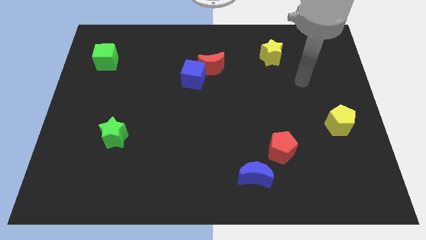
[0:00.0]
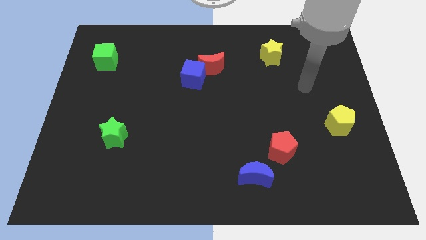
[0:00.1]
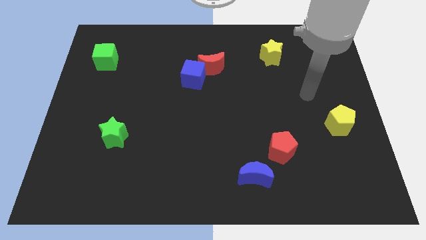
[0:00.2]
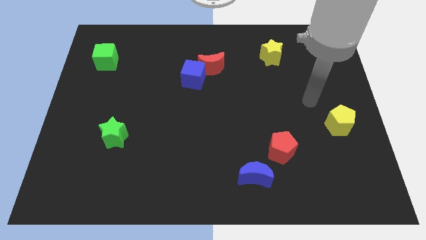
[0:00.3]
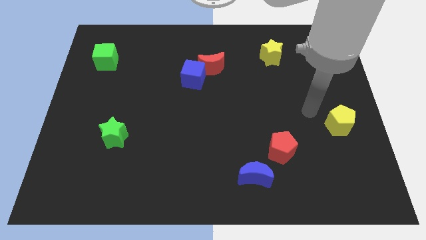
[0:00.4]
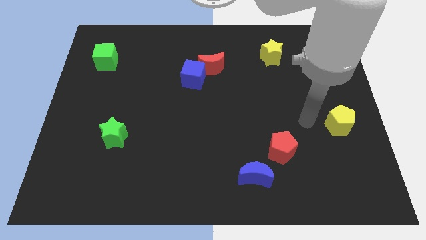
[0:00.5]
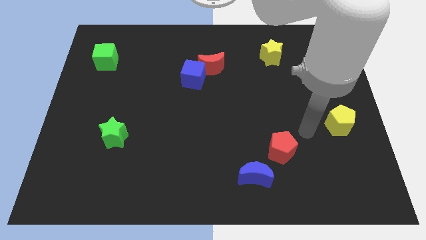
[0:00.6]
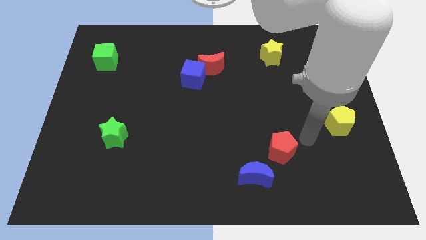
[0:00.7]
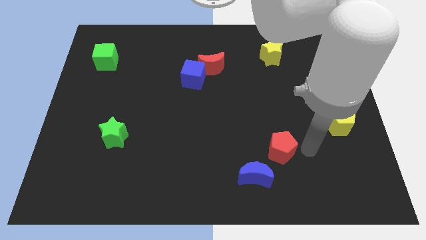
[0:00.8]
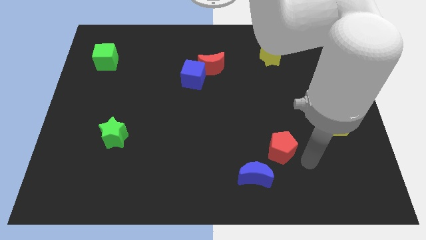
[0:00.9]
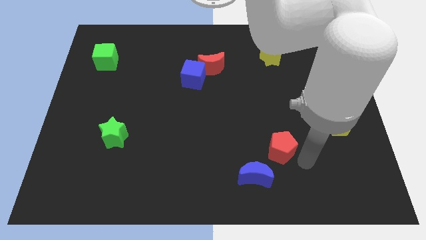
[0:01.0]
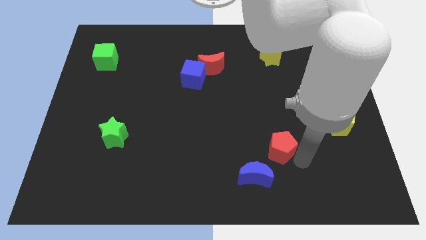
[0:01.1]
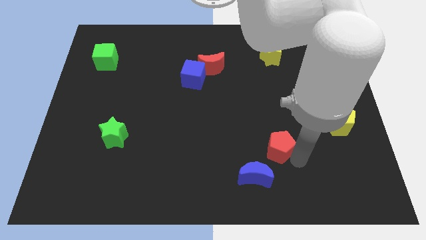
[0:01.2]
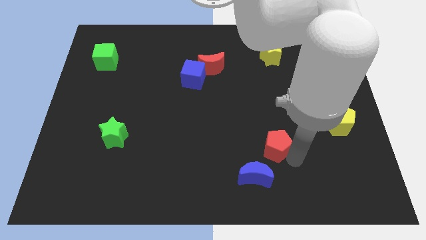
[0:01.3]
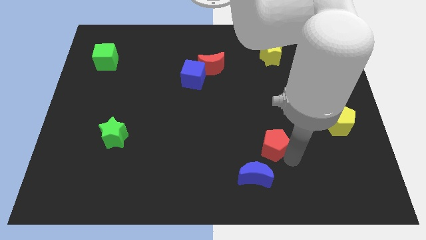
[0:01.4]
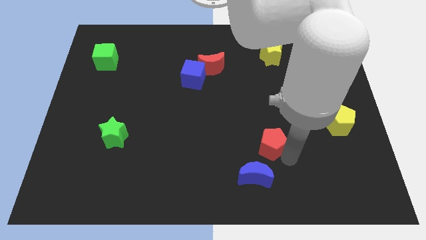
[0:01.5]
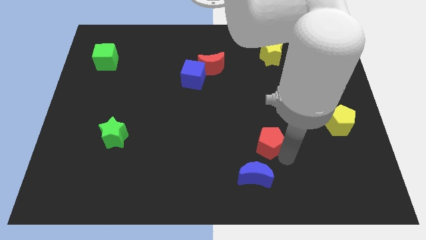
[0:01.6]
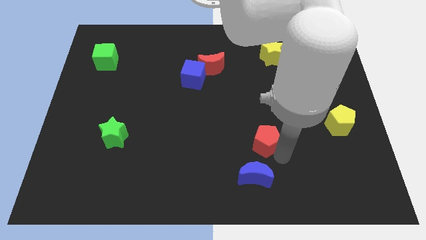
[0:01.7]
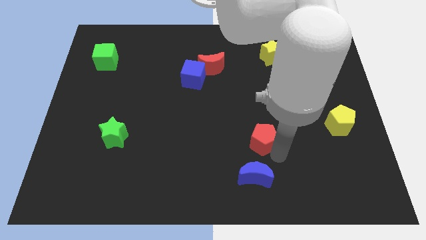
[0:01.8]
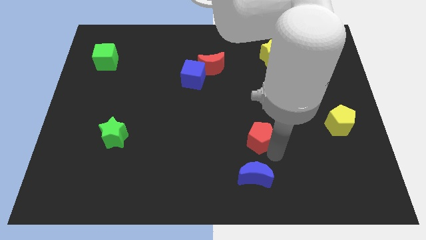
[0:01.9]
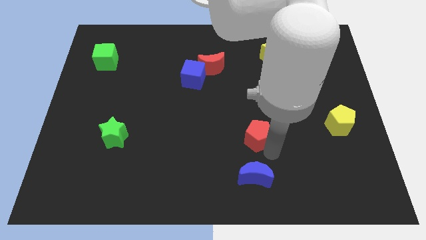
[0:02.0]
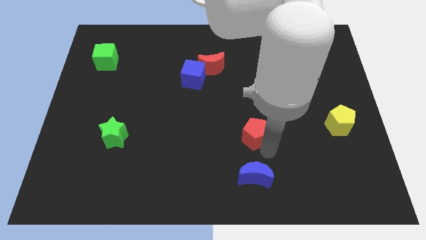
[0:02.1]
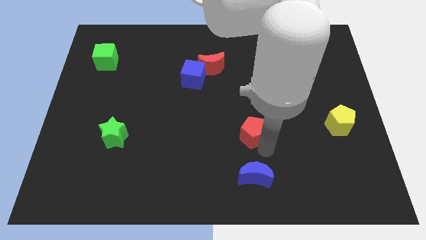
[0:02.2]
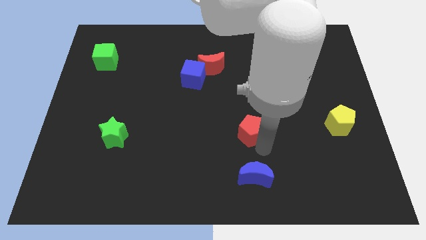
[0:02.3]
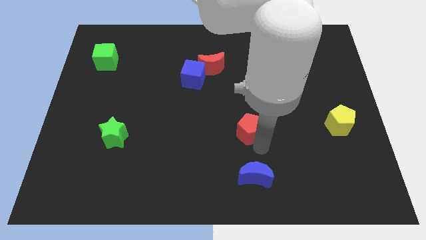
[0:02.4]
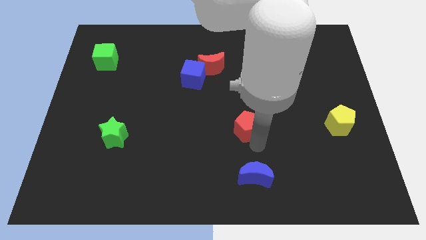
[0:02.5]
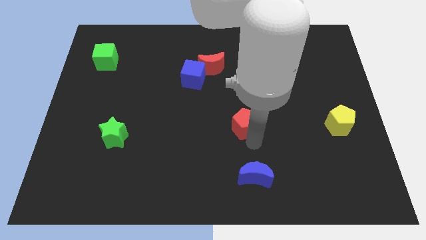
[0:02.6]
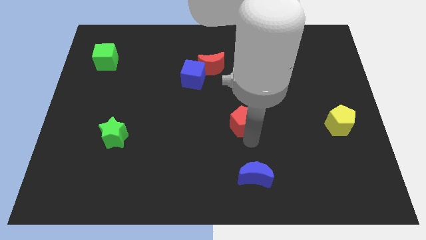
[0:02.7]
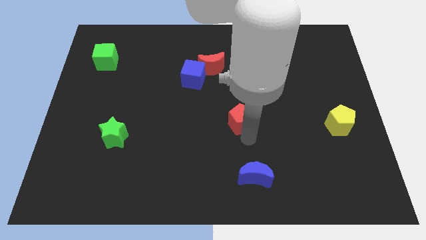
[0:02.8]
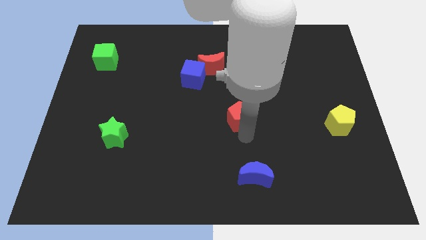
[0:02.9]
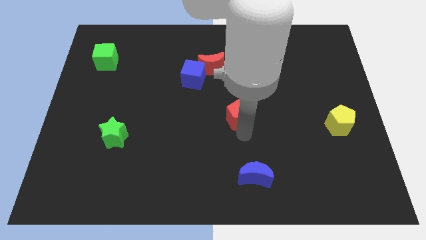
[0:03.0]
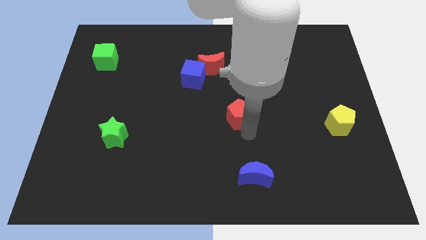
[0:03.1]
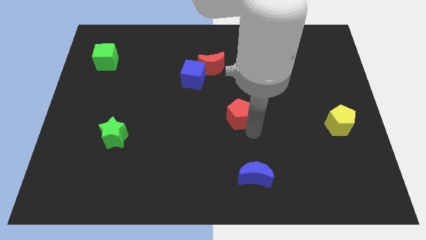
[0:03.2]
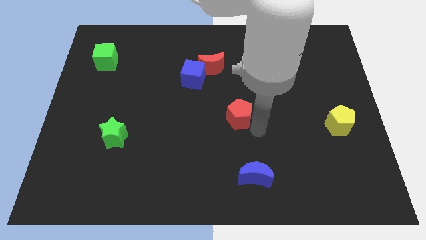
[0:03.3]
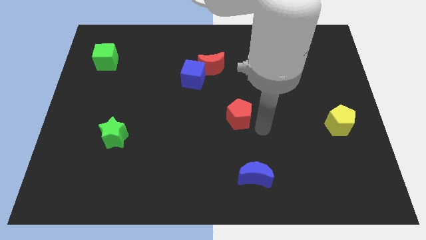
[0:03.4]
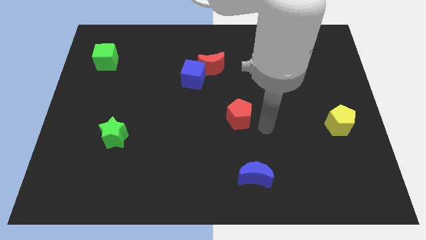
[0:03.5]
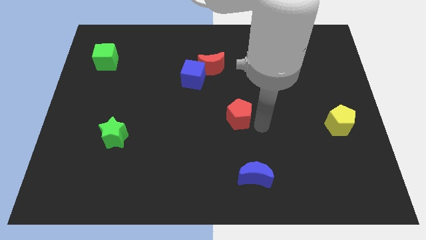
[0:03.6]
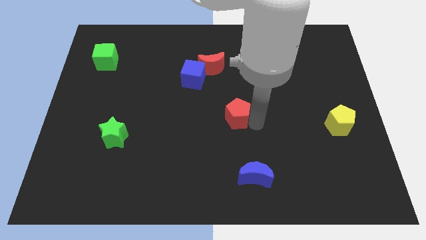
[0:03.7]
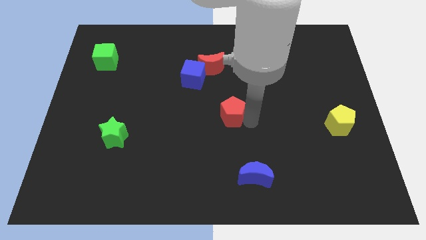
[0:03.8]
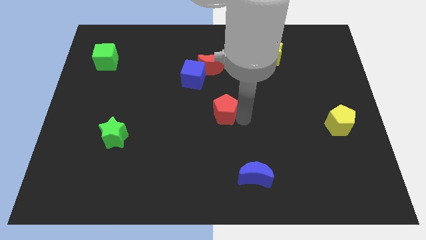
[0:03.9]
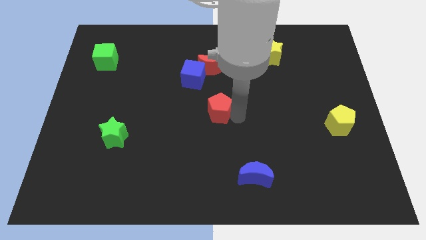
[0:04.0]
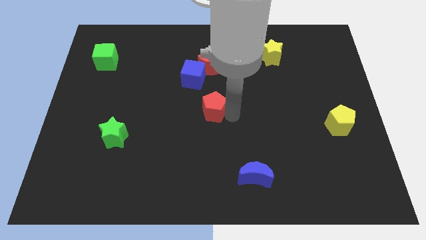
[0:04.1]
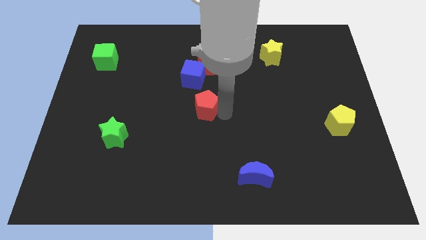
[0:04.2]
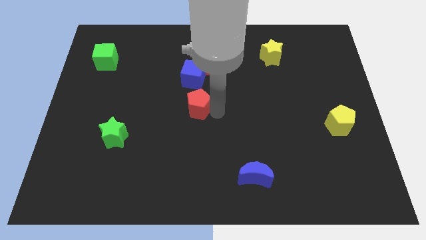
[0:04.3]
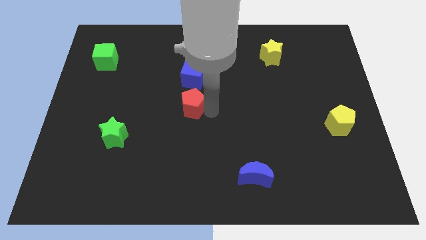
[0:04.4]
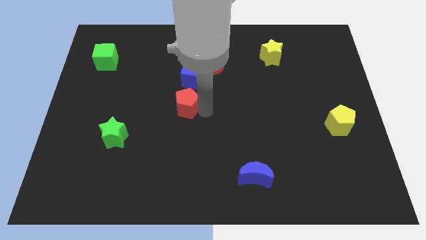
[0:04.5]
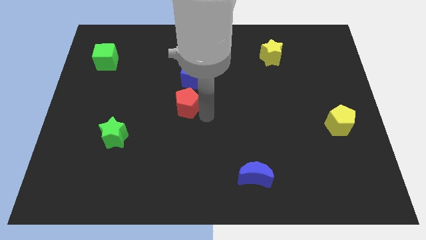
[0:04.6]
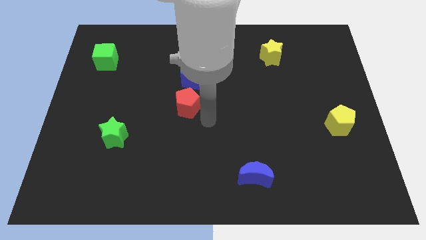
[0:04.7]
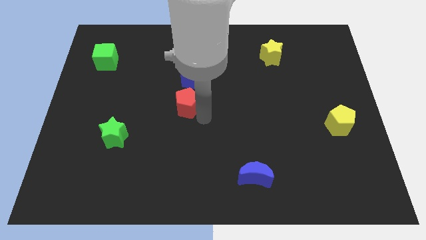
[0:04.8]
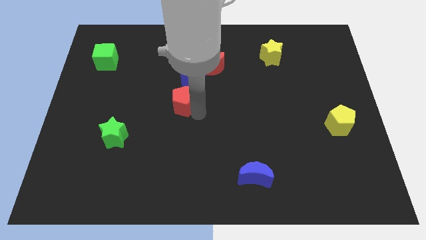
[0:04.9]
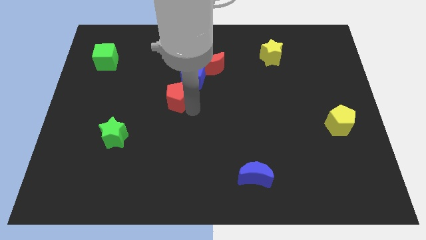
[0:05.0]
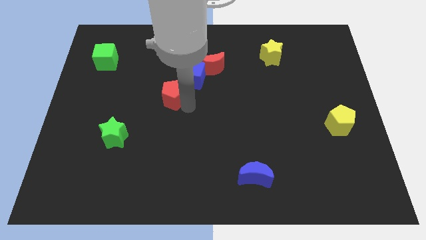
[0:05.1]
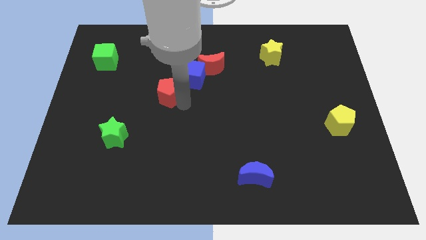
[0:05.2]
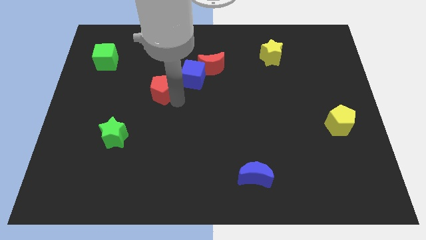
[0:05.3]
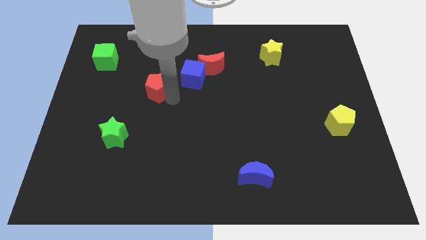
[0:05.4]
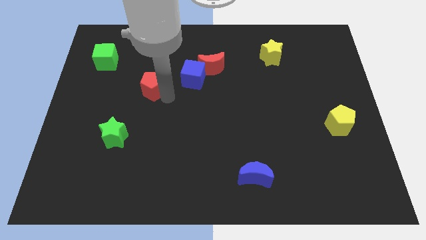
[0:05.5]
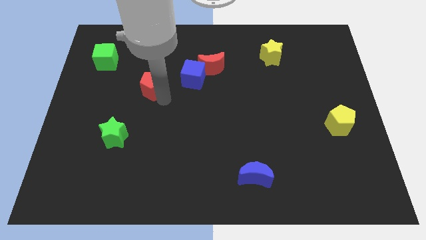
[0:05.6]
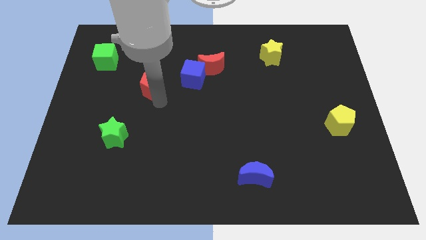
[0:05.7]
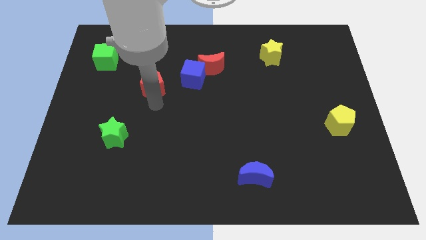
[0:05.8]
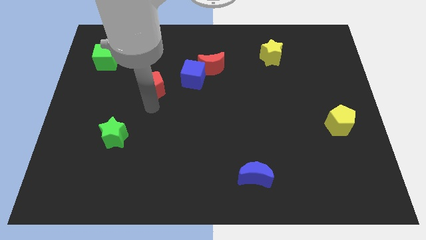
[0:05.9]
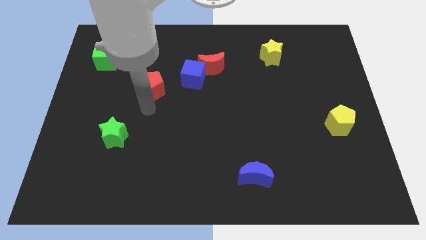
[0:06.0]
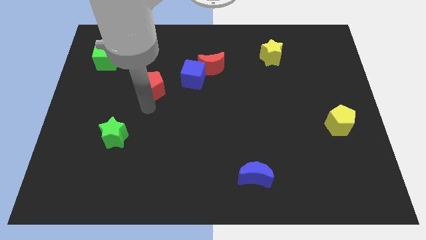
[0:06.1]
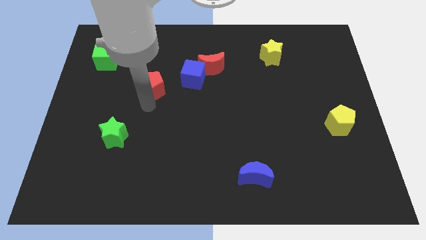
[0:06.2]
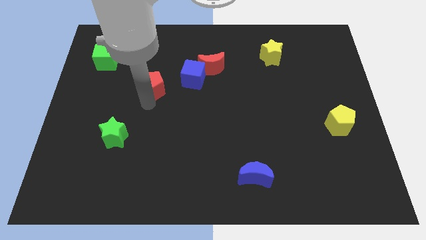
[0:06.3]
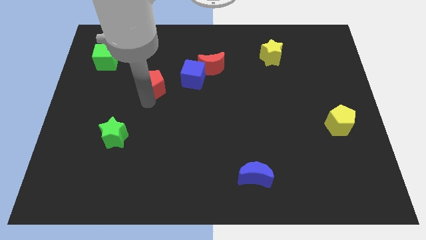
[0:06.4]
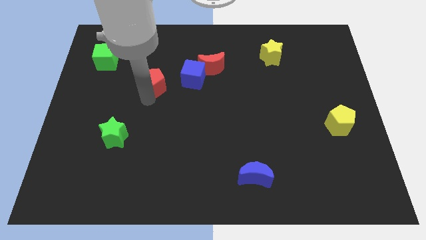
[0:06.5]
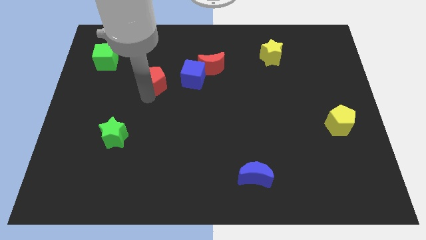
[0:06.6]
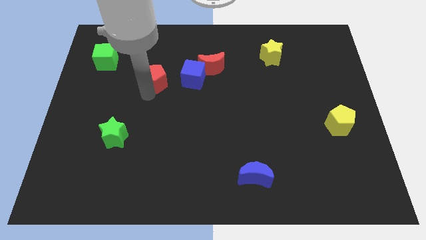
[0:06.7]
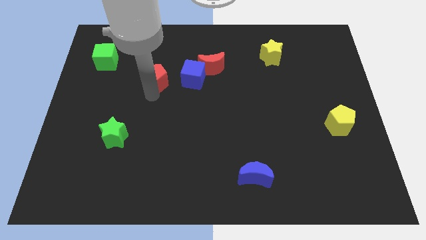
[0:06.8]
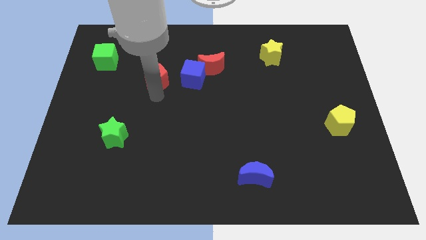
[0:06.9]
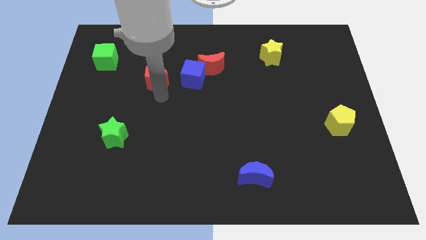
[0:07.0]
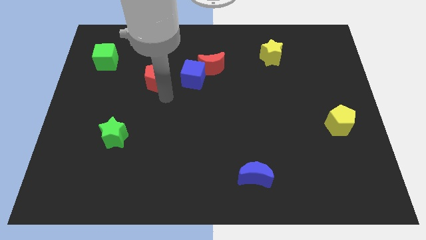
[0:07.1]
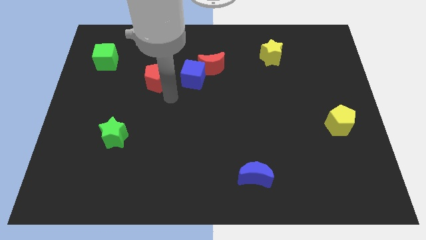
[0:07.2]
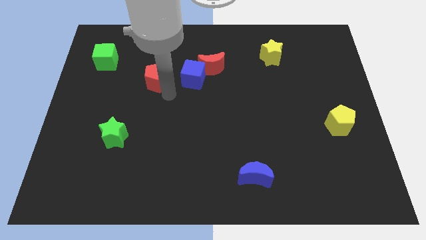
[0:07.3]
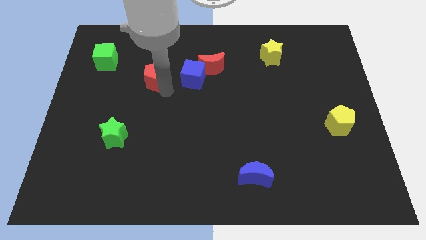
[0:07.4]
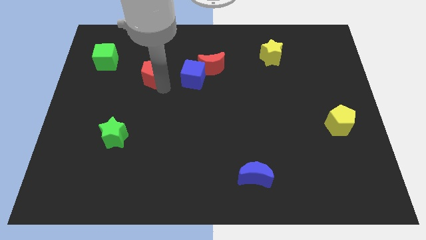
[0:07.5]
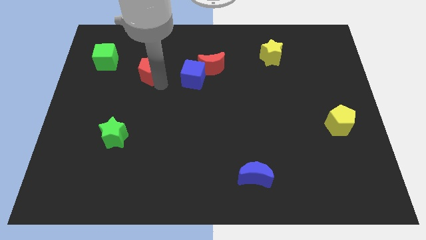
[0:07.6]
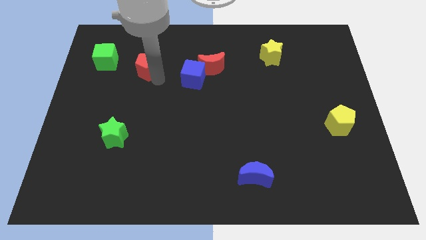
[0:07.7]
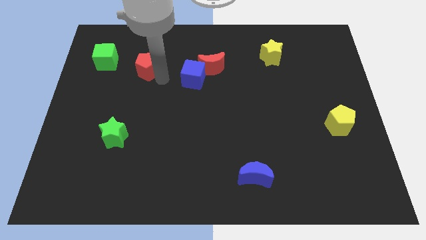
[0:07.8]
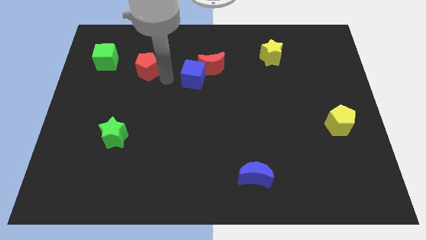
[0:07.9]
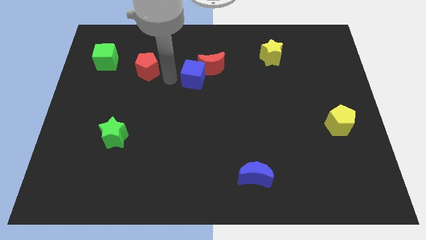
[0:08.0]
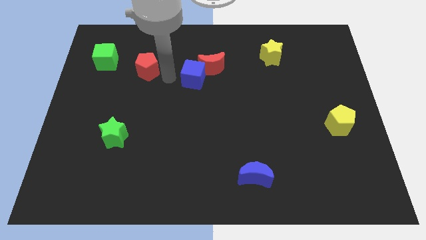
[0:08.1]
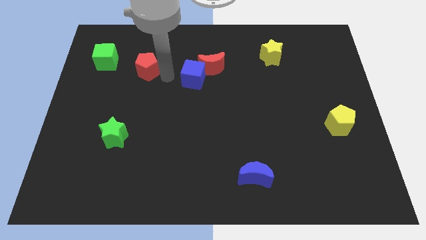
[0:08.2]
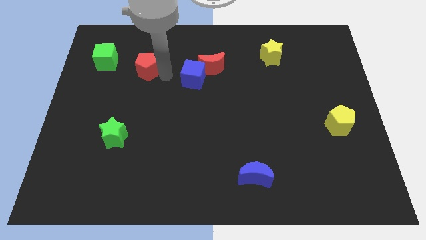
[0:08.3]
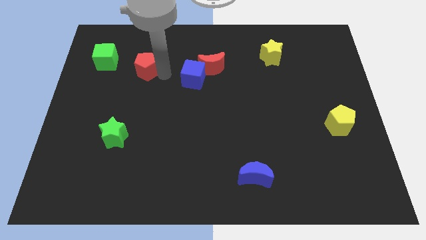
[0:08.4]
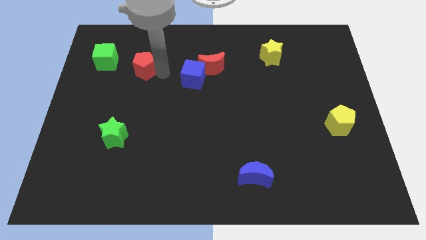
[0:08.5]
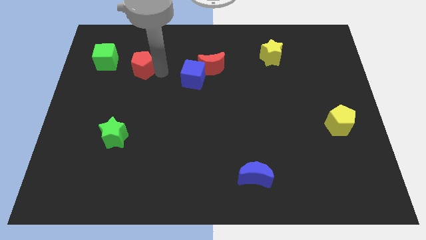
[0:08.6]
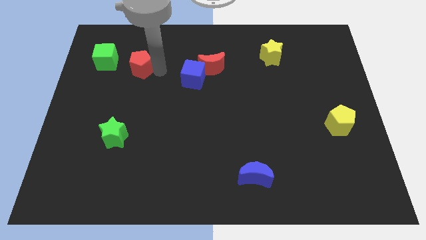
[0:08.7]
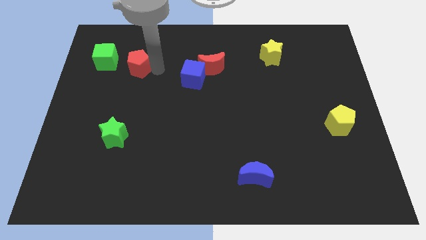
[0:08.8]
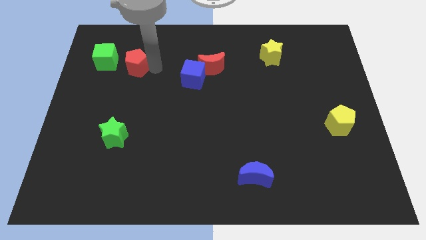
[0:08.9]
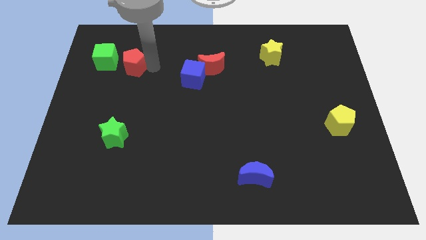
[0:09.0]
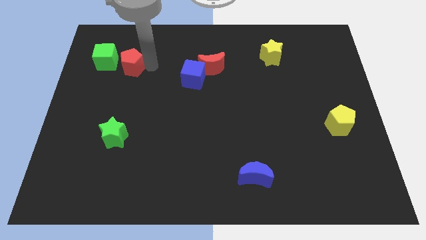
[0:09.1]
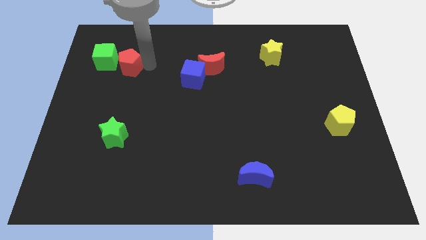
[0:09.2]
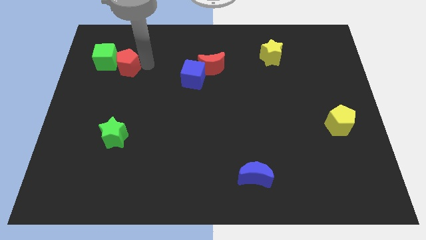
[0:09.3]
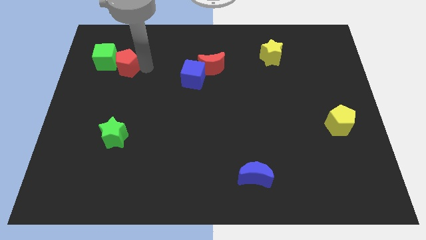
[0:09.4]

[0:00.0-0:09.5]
put the red pentagon close to the green cube
